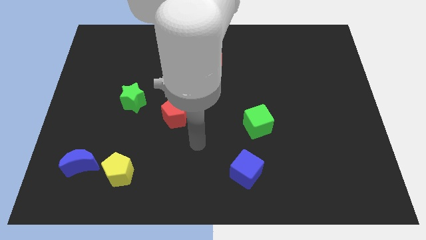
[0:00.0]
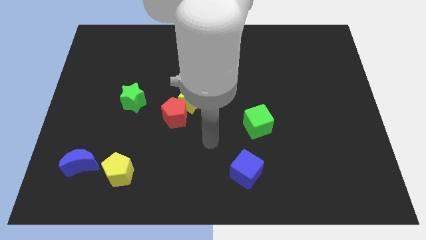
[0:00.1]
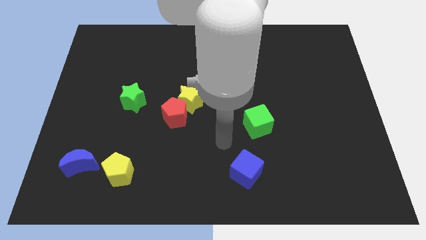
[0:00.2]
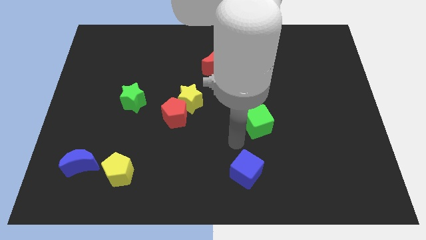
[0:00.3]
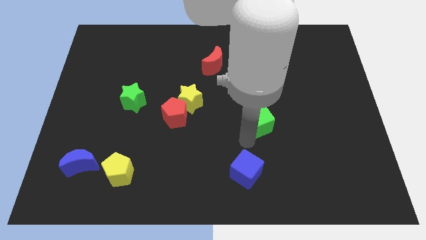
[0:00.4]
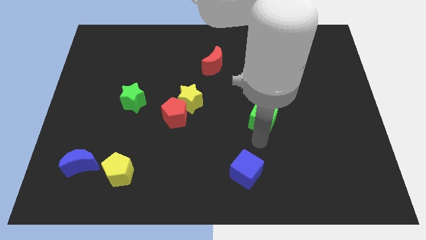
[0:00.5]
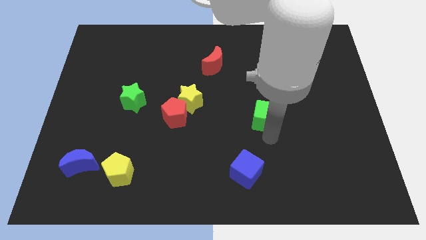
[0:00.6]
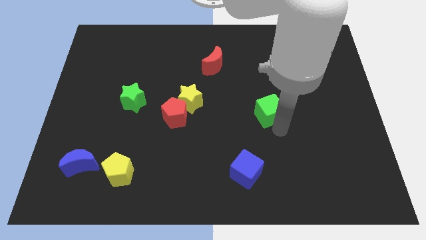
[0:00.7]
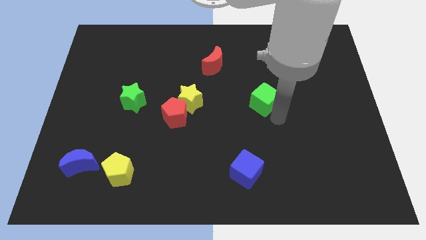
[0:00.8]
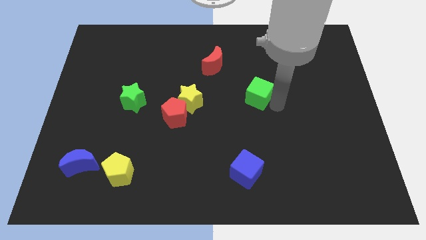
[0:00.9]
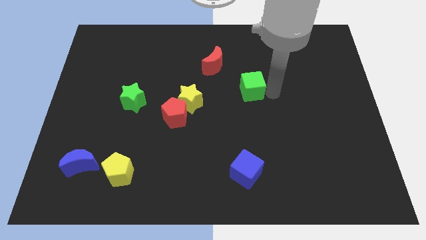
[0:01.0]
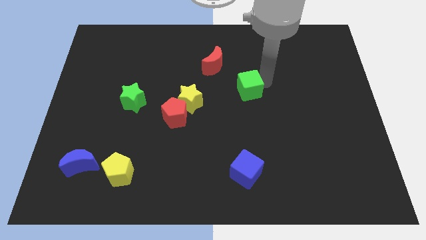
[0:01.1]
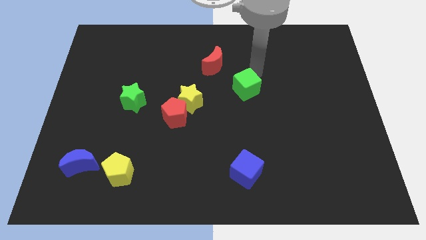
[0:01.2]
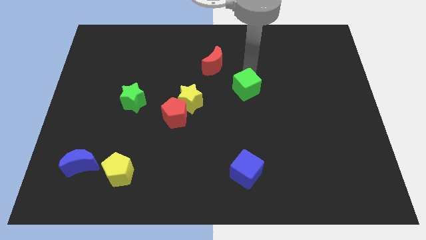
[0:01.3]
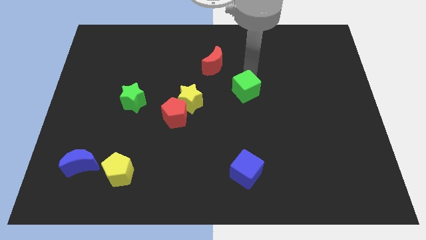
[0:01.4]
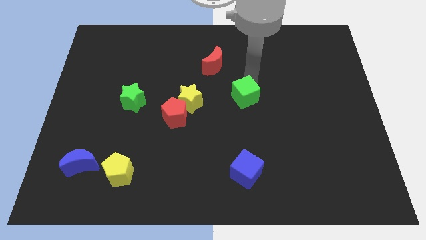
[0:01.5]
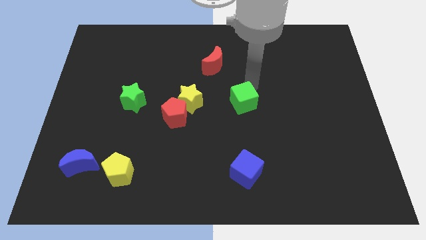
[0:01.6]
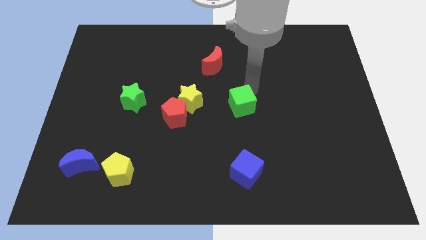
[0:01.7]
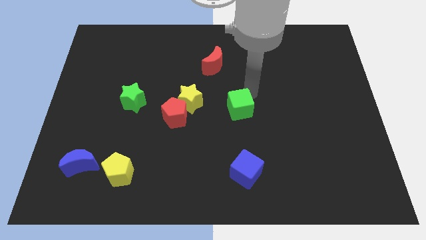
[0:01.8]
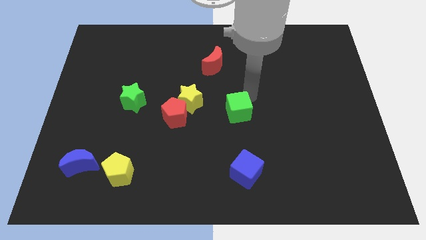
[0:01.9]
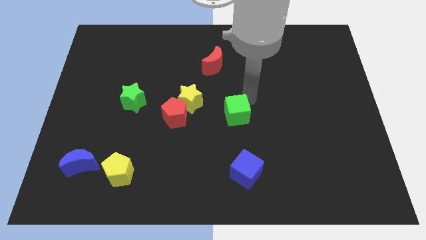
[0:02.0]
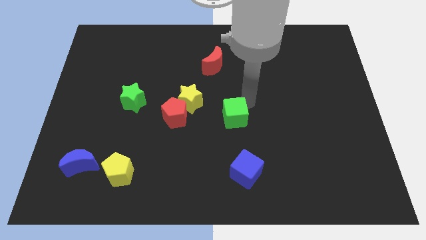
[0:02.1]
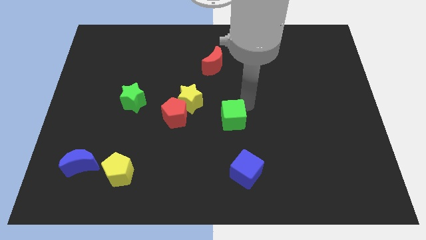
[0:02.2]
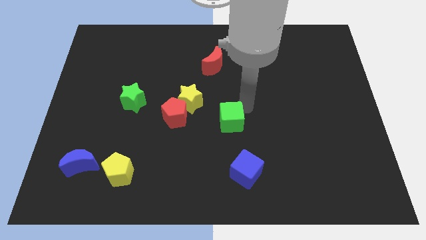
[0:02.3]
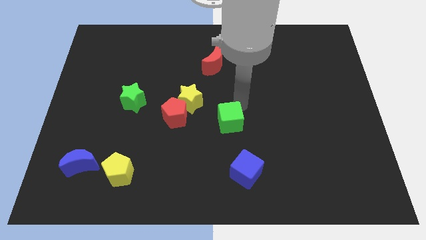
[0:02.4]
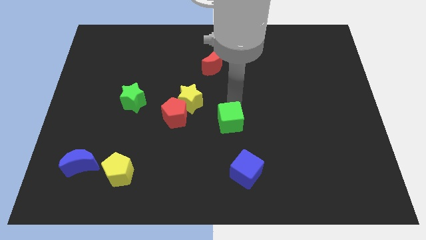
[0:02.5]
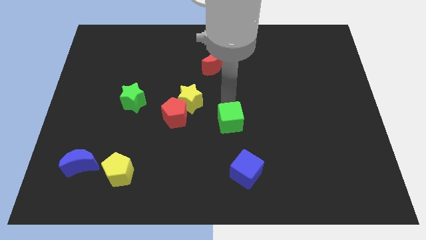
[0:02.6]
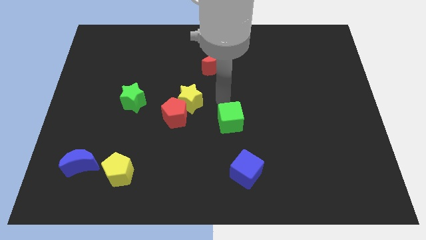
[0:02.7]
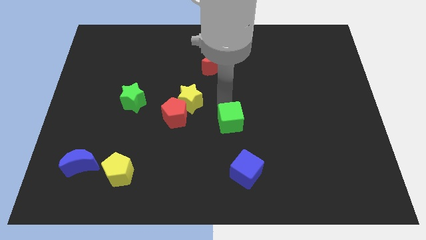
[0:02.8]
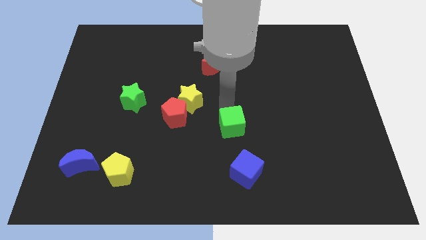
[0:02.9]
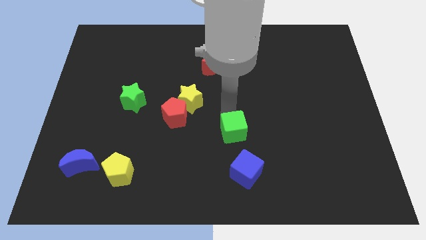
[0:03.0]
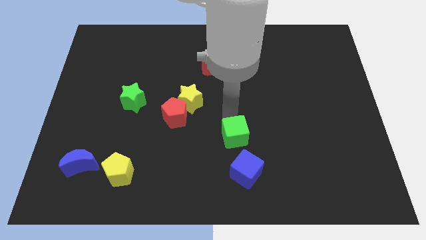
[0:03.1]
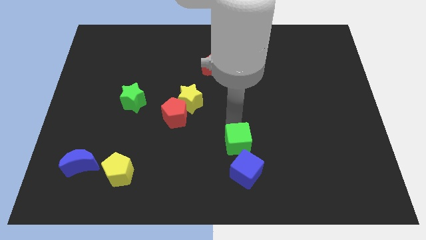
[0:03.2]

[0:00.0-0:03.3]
move the green cube down and left diagonally a bit

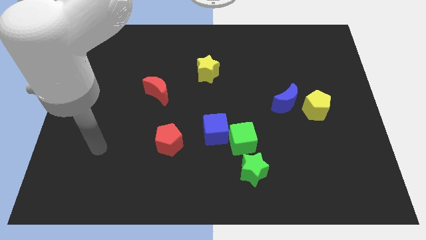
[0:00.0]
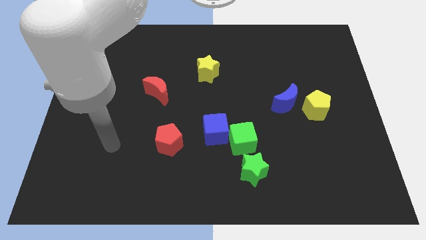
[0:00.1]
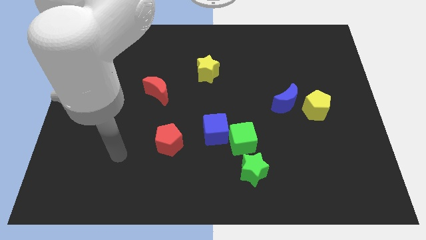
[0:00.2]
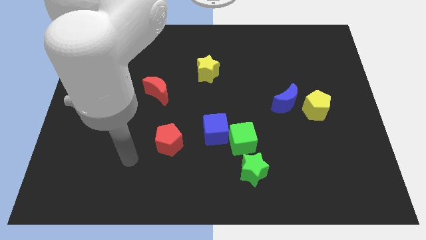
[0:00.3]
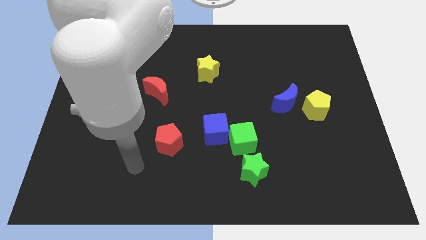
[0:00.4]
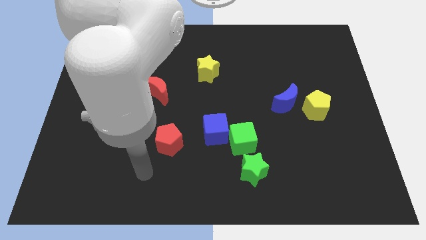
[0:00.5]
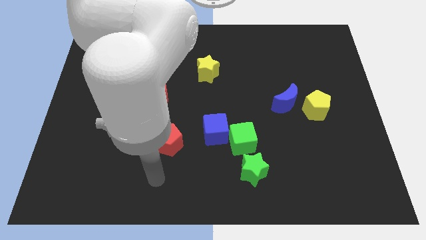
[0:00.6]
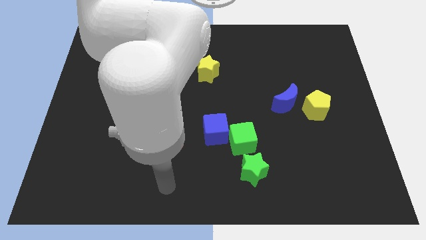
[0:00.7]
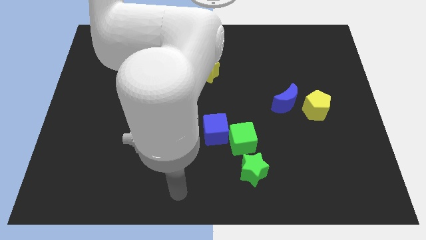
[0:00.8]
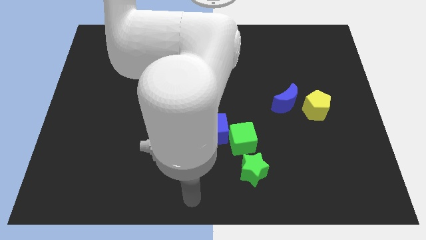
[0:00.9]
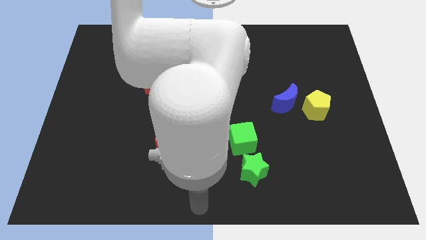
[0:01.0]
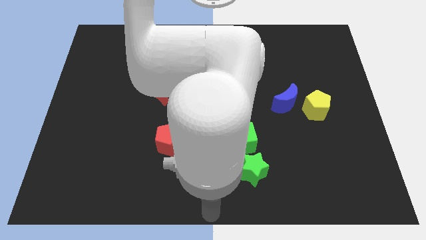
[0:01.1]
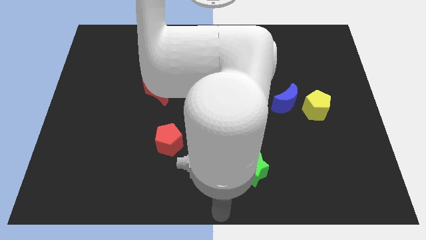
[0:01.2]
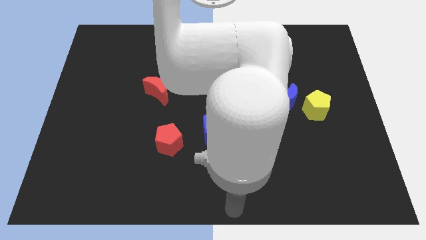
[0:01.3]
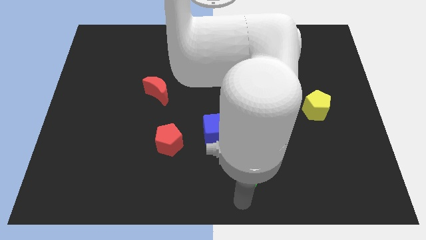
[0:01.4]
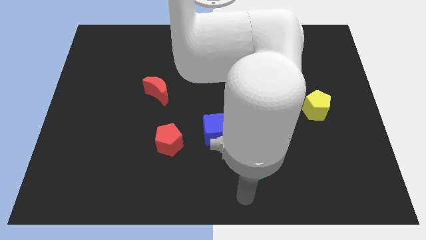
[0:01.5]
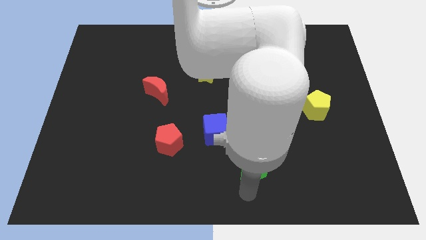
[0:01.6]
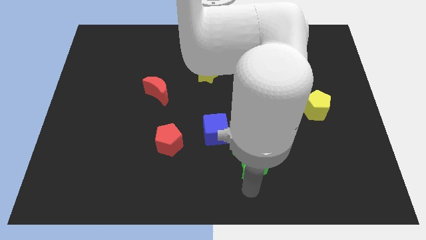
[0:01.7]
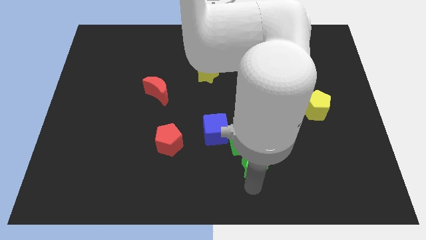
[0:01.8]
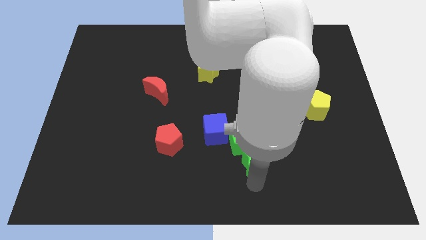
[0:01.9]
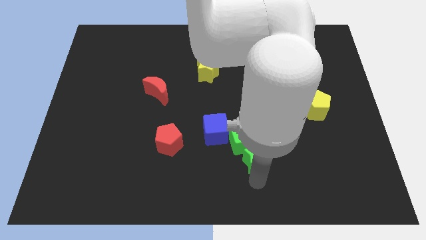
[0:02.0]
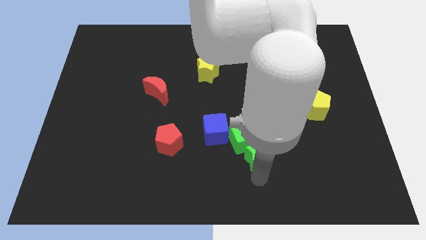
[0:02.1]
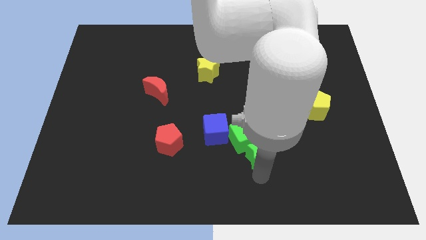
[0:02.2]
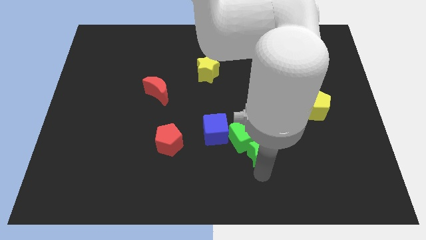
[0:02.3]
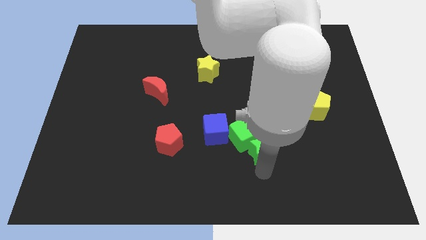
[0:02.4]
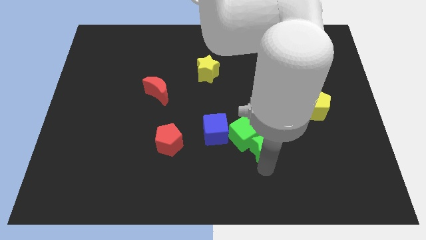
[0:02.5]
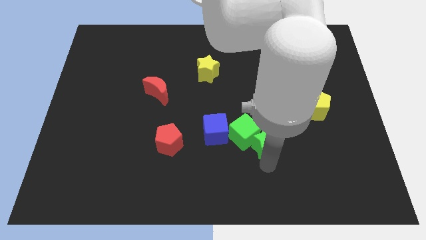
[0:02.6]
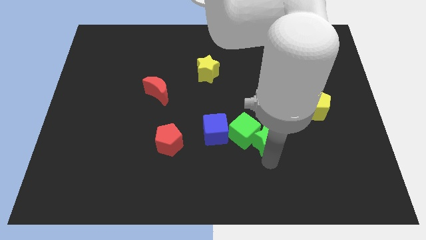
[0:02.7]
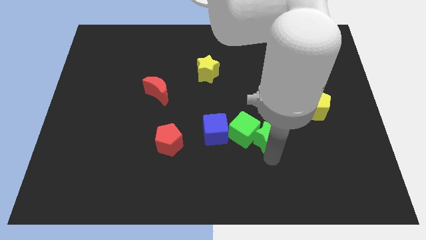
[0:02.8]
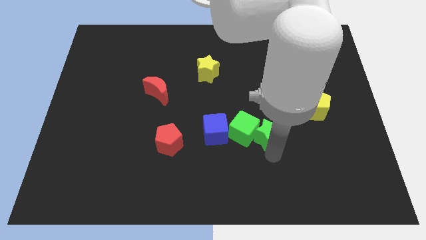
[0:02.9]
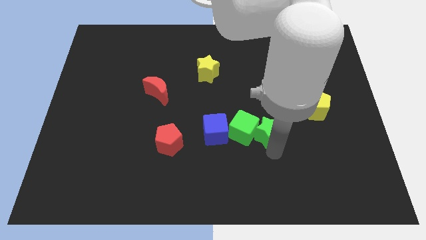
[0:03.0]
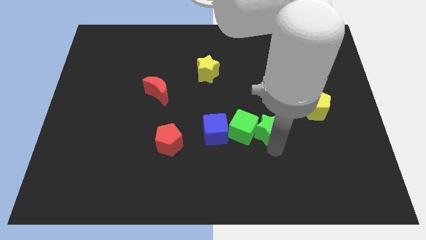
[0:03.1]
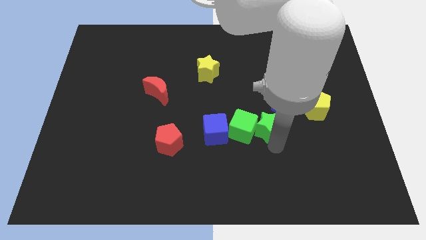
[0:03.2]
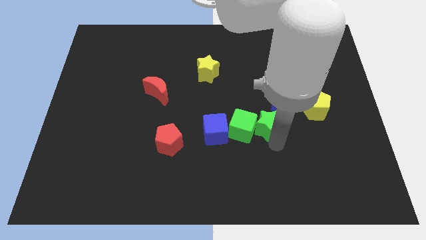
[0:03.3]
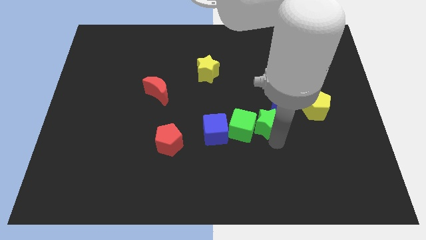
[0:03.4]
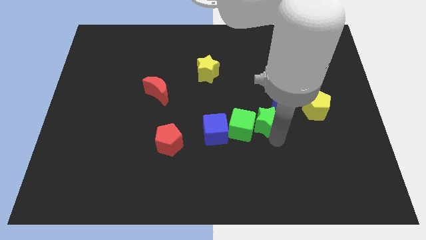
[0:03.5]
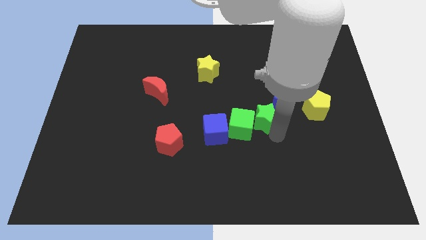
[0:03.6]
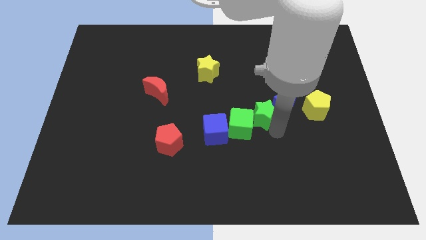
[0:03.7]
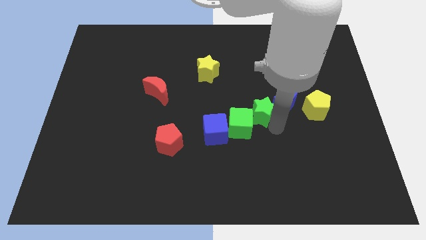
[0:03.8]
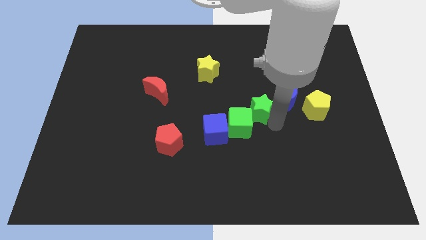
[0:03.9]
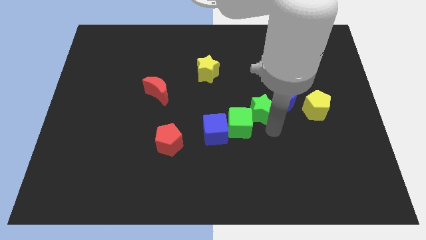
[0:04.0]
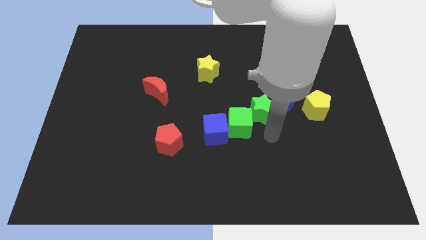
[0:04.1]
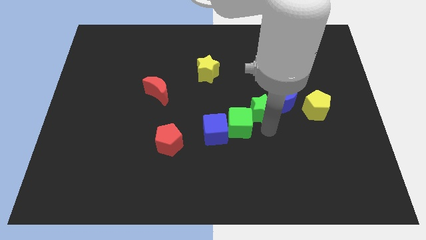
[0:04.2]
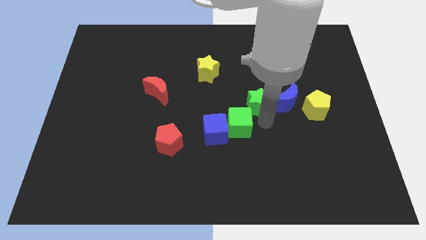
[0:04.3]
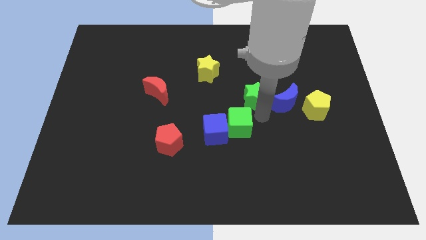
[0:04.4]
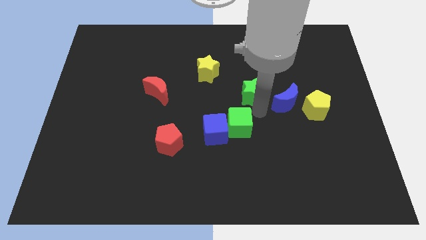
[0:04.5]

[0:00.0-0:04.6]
move the green star upwards

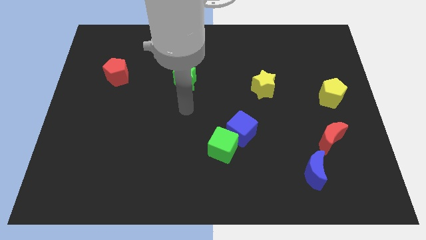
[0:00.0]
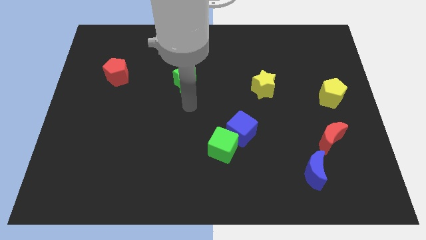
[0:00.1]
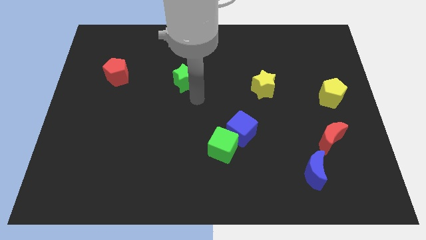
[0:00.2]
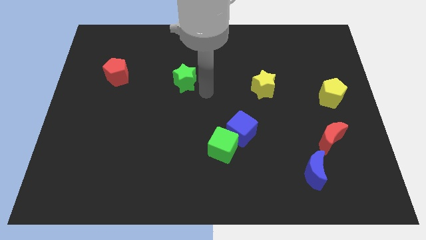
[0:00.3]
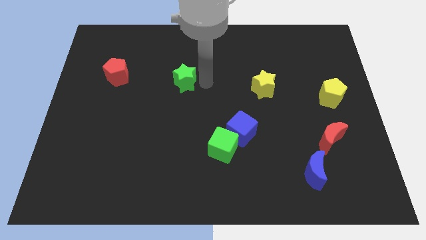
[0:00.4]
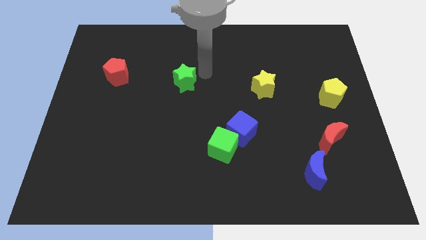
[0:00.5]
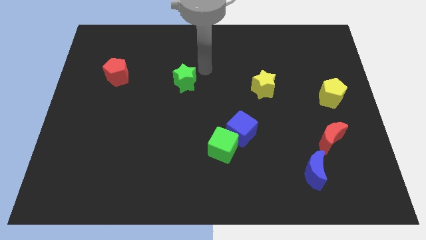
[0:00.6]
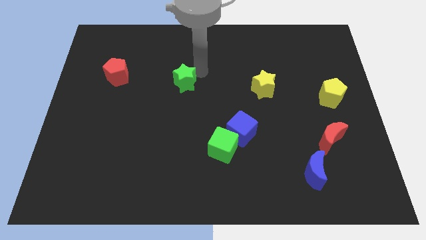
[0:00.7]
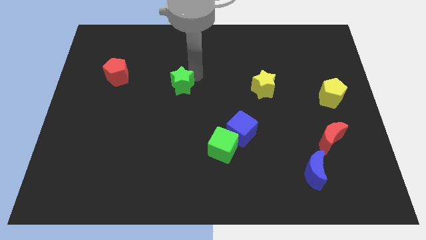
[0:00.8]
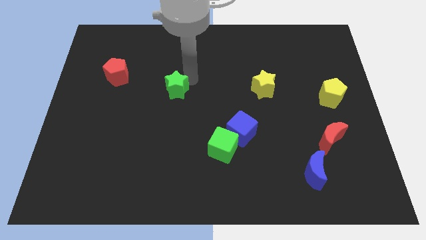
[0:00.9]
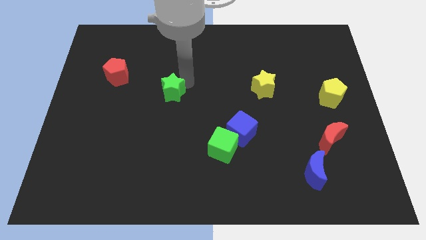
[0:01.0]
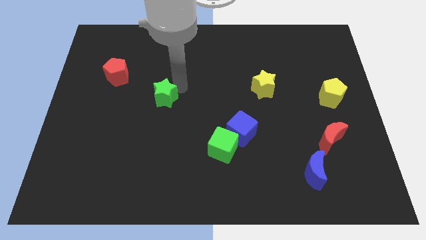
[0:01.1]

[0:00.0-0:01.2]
slightly move the green star diagonally downwards and to the left
